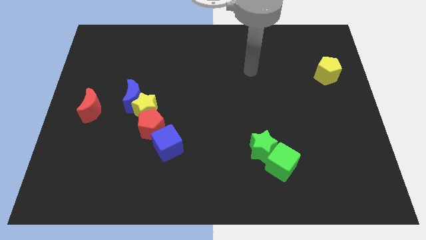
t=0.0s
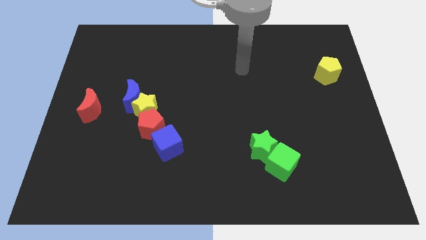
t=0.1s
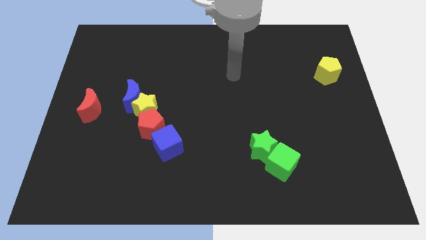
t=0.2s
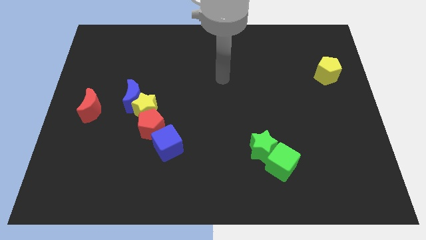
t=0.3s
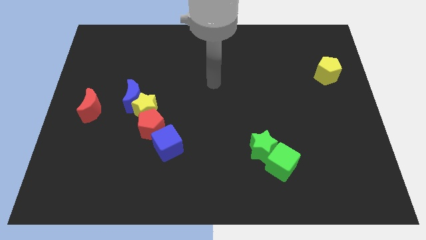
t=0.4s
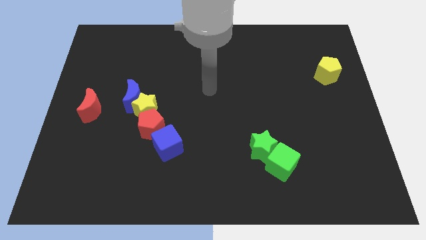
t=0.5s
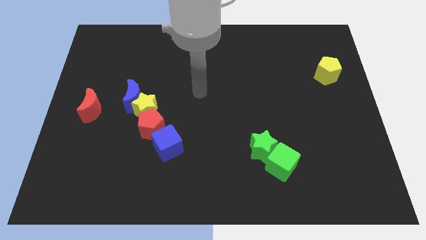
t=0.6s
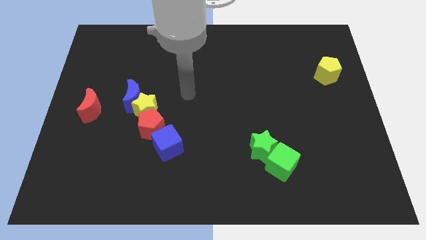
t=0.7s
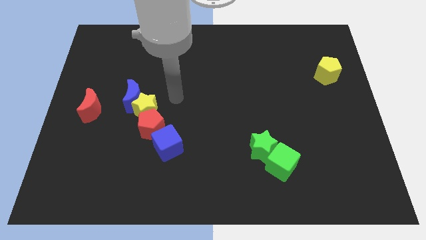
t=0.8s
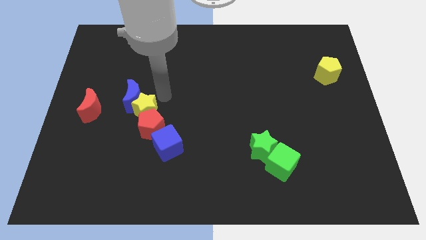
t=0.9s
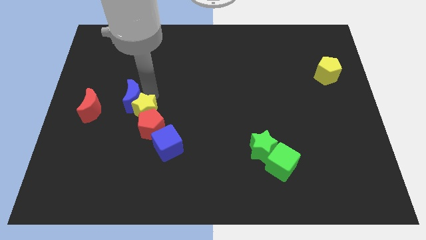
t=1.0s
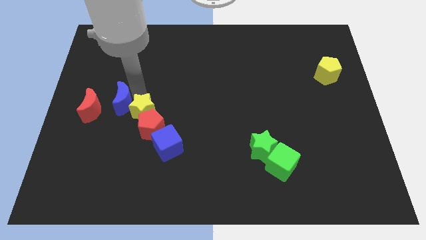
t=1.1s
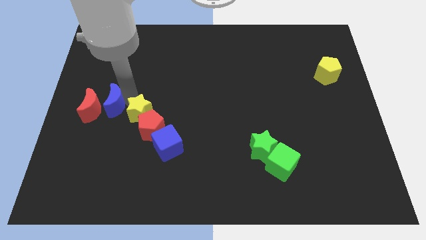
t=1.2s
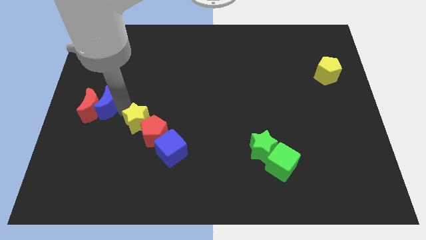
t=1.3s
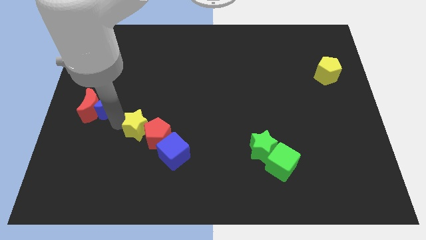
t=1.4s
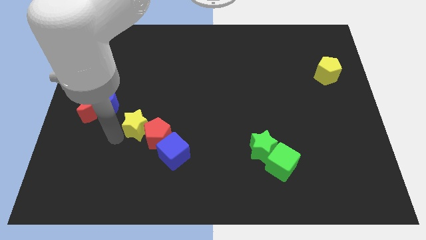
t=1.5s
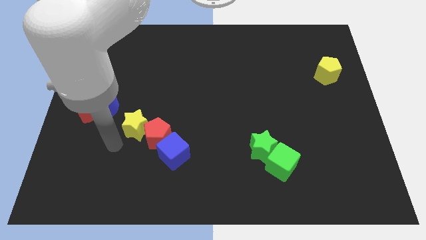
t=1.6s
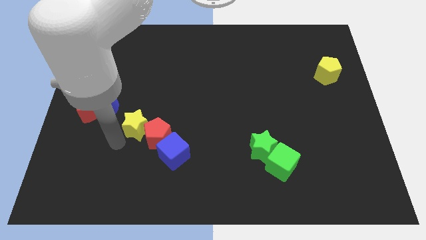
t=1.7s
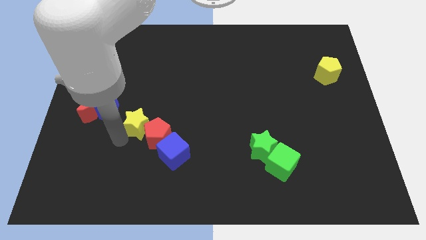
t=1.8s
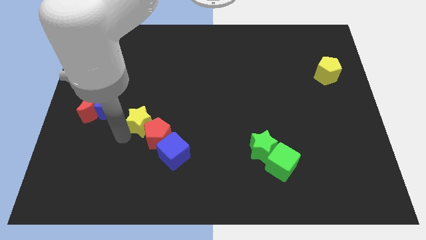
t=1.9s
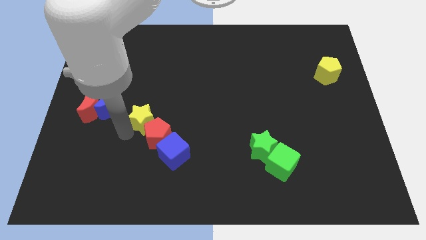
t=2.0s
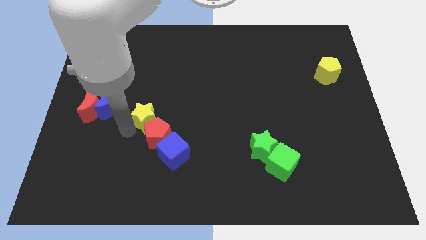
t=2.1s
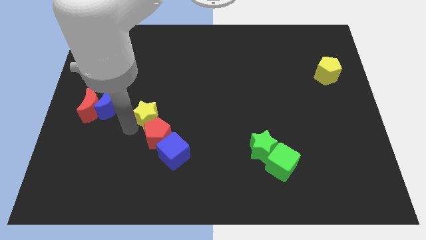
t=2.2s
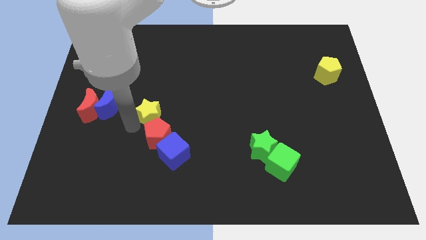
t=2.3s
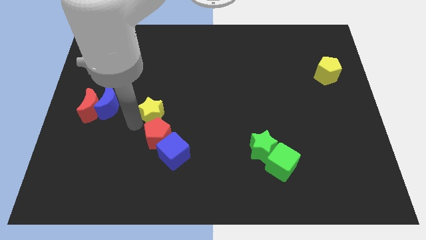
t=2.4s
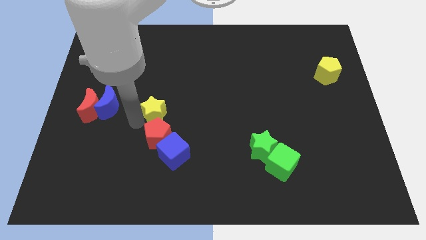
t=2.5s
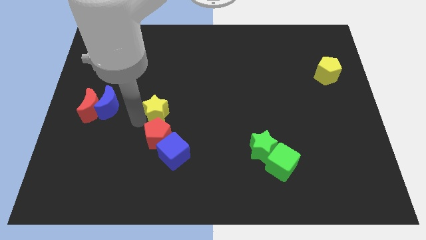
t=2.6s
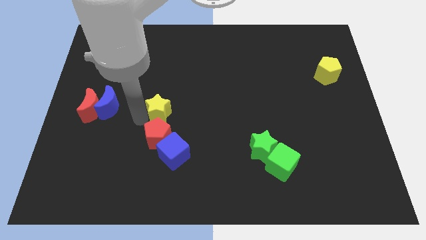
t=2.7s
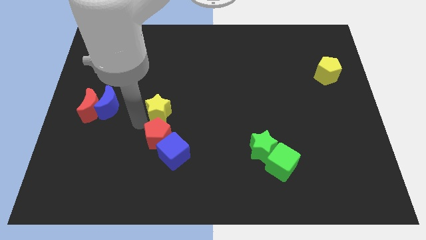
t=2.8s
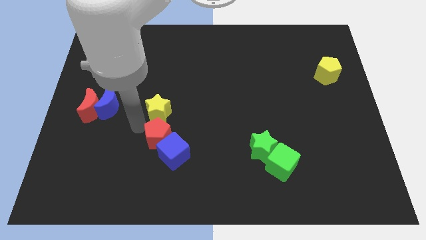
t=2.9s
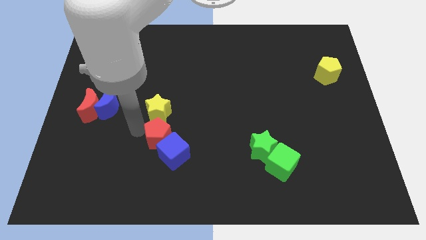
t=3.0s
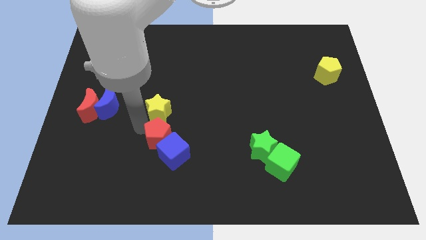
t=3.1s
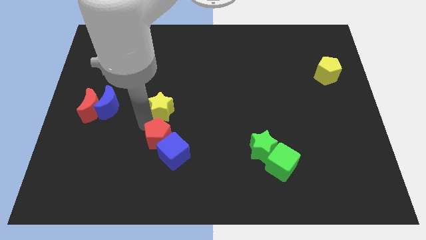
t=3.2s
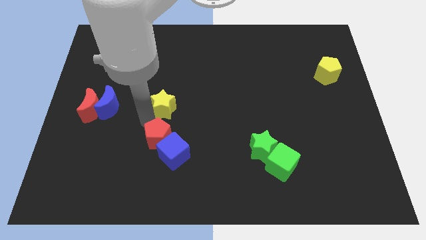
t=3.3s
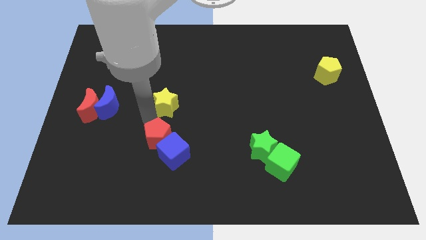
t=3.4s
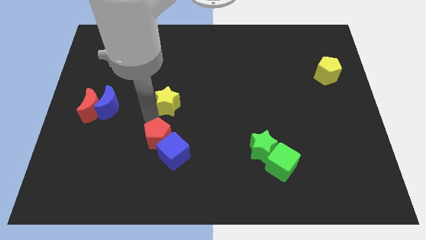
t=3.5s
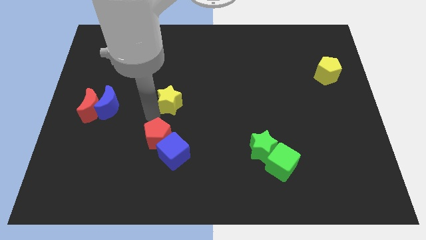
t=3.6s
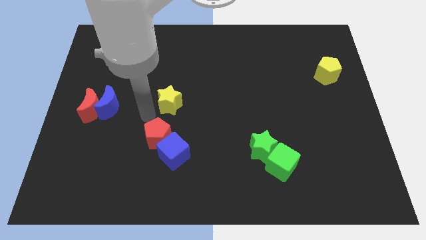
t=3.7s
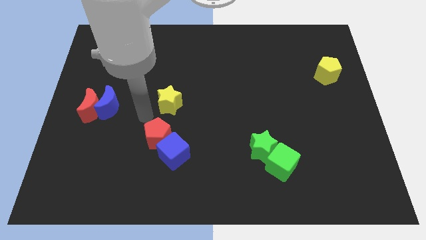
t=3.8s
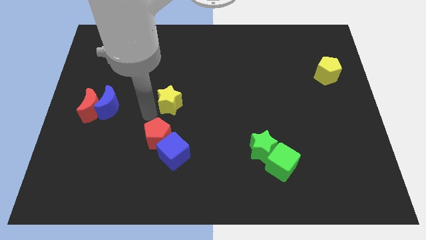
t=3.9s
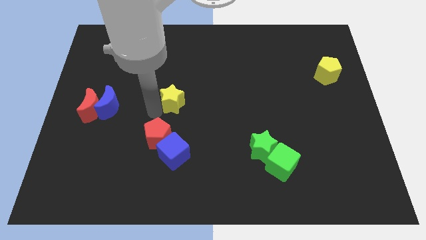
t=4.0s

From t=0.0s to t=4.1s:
move the yellow star away from the red pentagon and blue moon

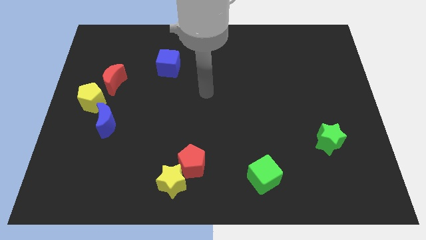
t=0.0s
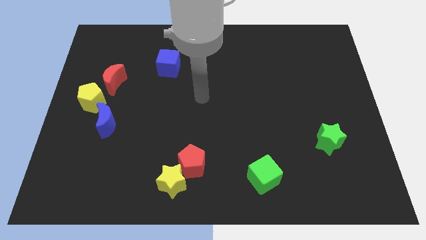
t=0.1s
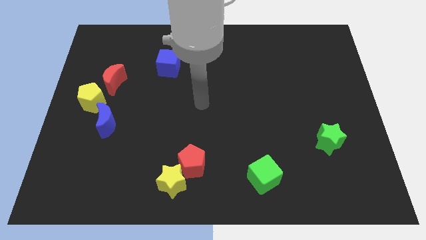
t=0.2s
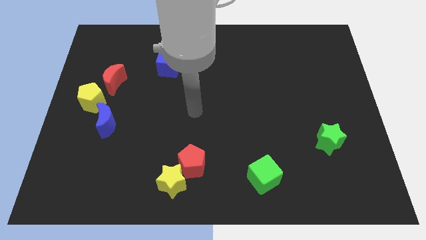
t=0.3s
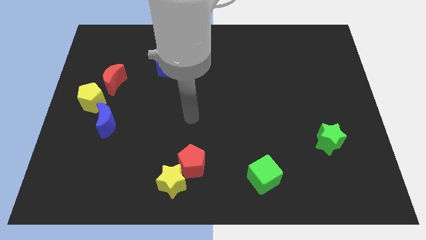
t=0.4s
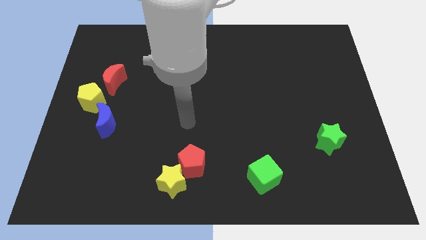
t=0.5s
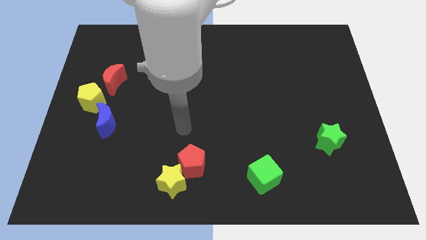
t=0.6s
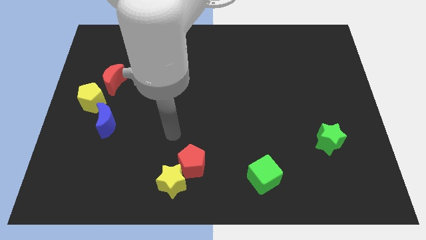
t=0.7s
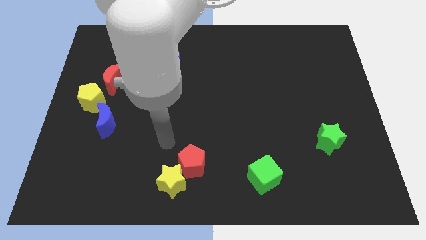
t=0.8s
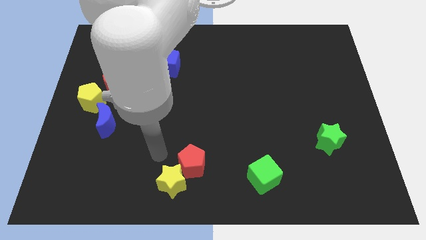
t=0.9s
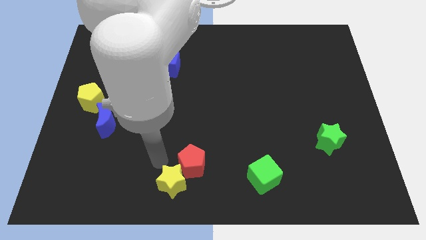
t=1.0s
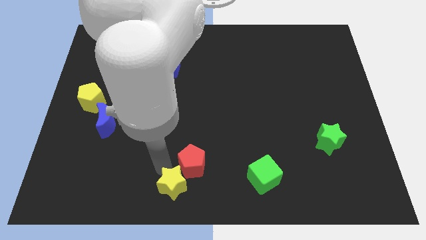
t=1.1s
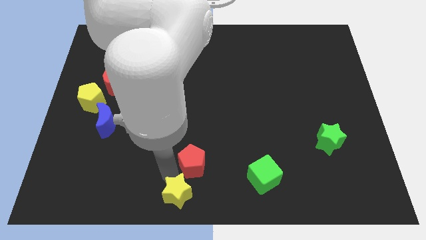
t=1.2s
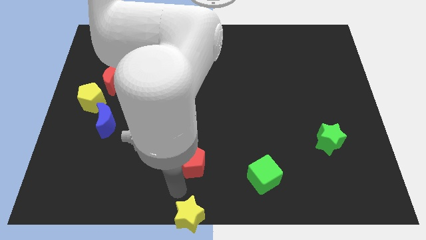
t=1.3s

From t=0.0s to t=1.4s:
separate the red pentagon from the yellow star

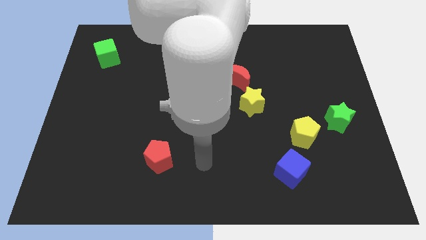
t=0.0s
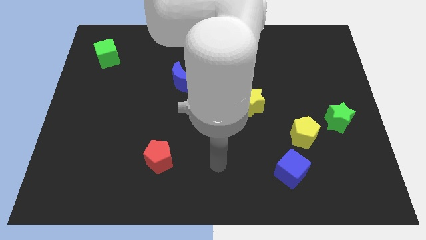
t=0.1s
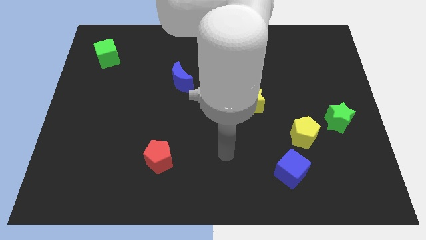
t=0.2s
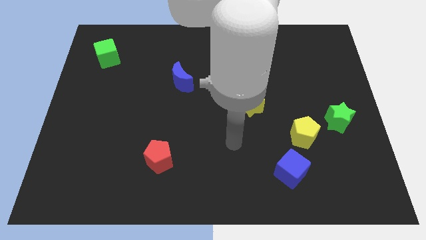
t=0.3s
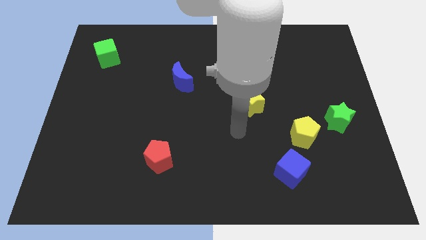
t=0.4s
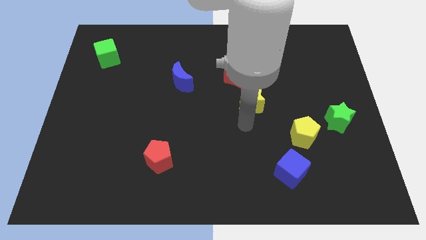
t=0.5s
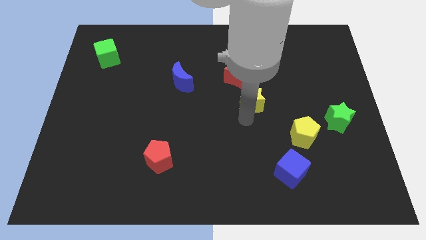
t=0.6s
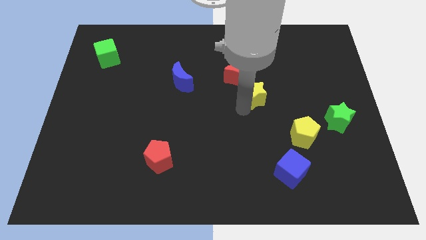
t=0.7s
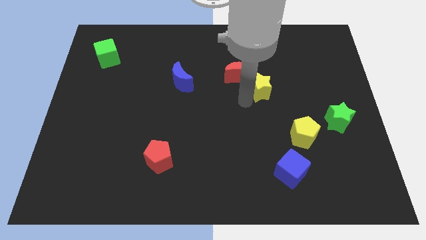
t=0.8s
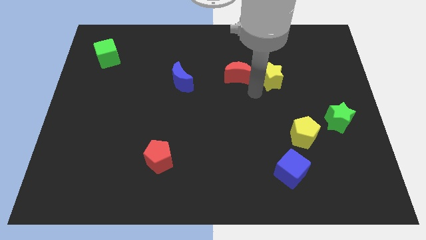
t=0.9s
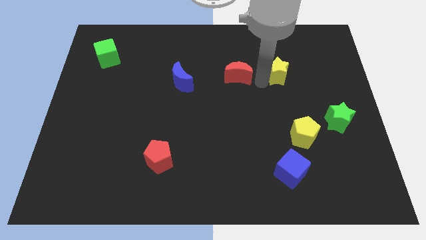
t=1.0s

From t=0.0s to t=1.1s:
move the red moon away from the yellow star

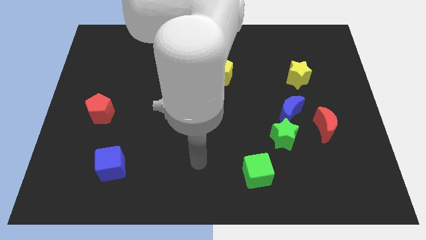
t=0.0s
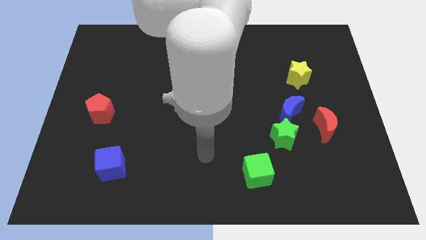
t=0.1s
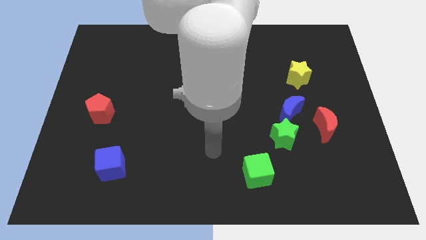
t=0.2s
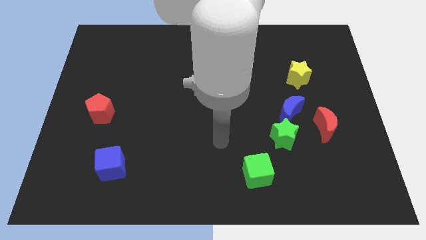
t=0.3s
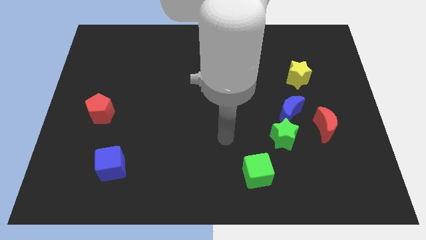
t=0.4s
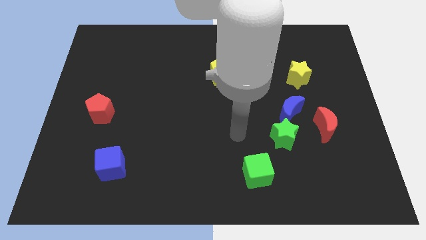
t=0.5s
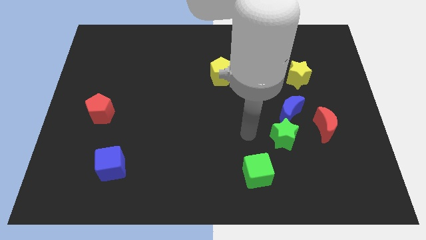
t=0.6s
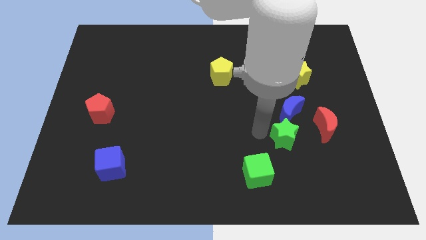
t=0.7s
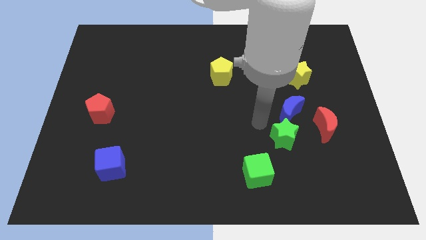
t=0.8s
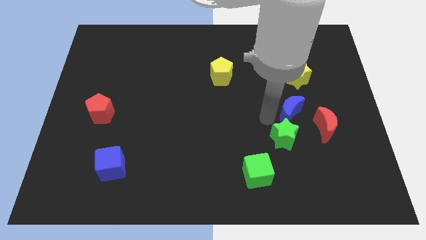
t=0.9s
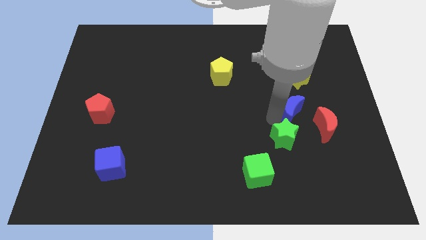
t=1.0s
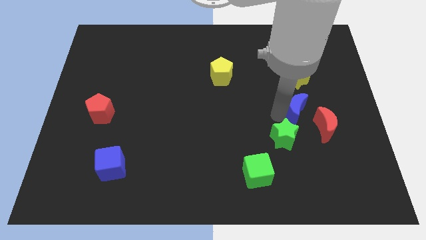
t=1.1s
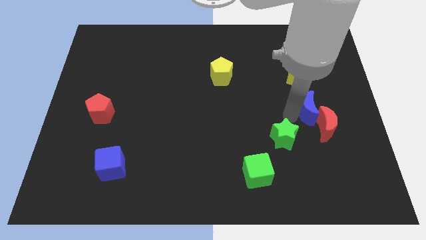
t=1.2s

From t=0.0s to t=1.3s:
move the green star away from the blue moon

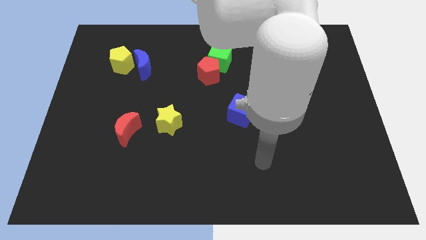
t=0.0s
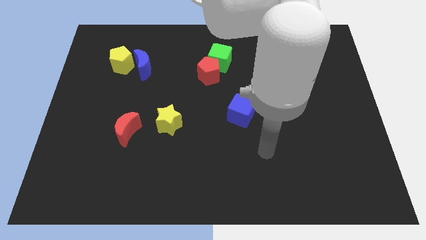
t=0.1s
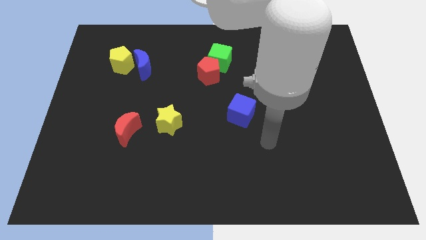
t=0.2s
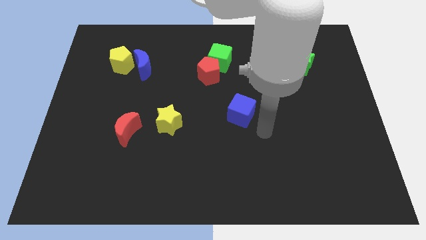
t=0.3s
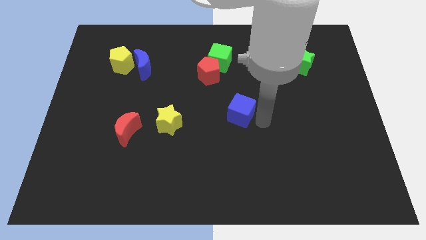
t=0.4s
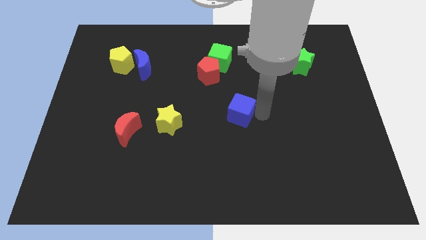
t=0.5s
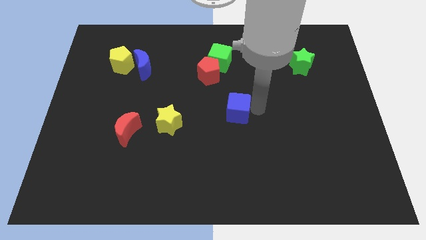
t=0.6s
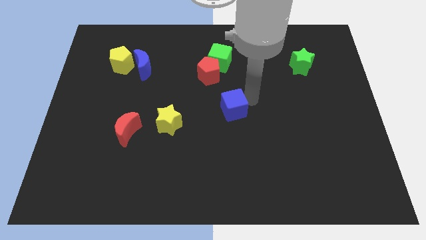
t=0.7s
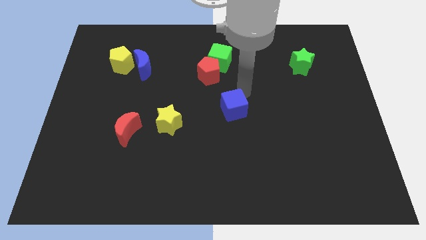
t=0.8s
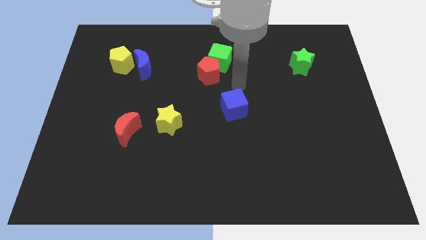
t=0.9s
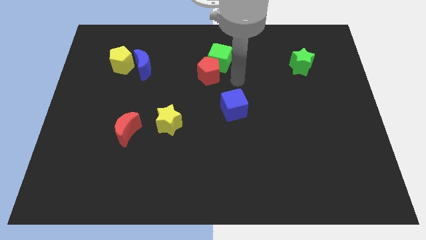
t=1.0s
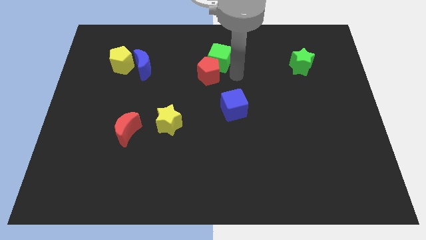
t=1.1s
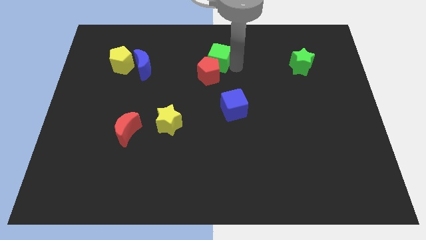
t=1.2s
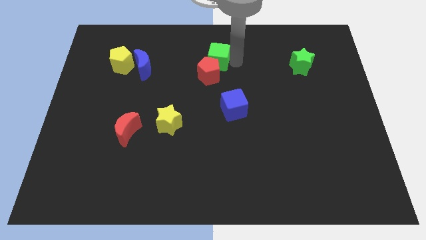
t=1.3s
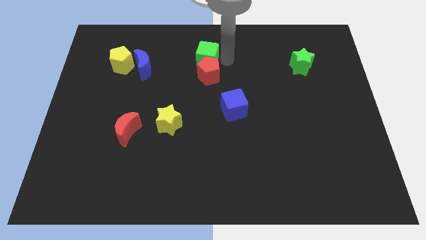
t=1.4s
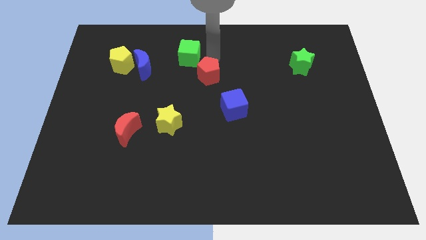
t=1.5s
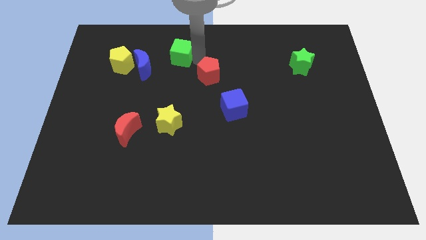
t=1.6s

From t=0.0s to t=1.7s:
separate the red pentagon from the green cube
